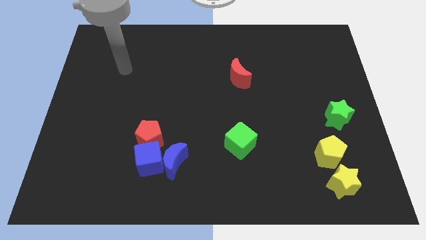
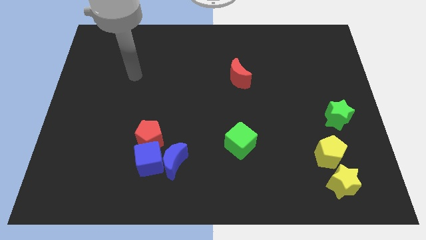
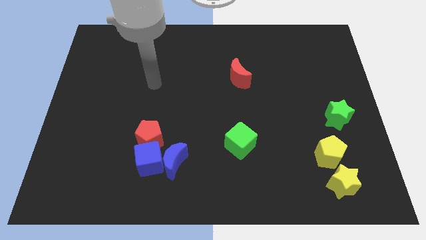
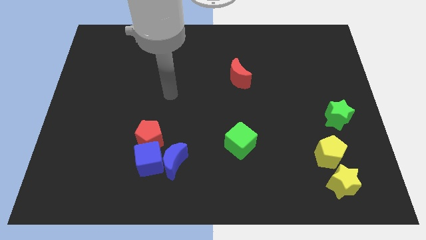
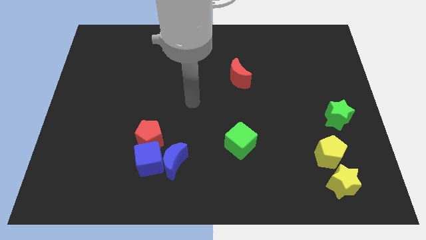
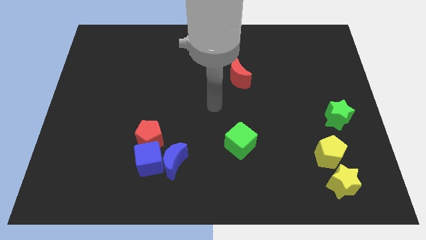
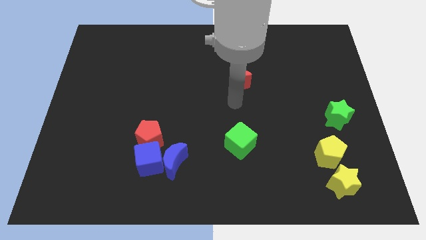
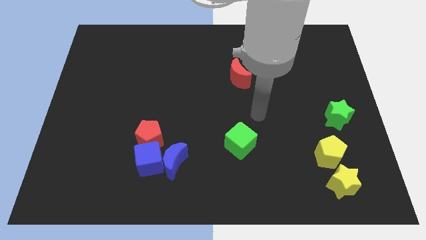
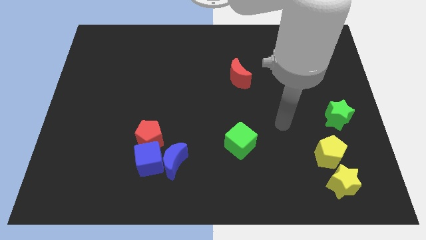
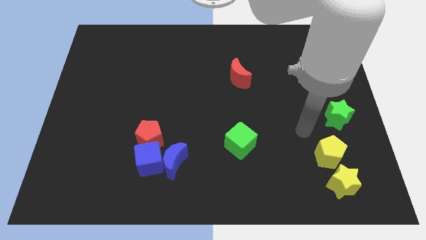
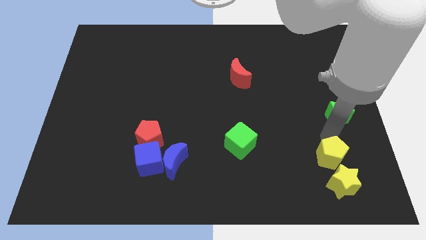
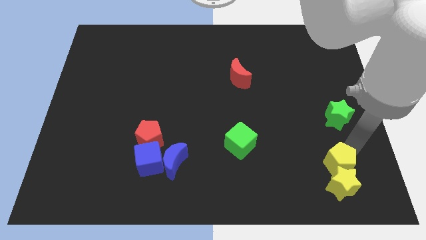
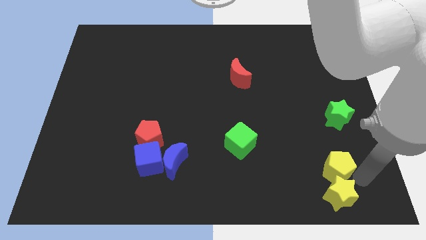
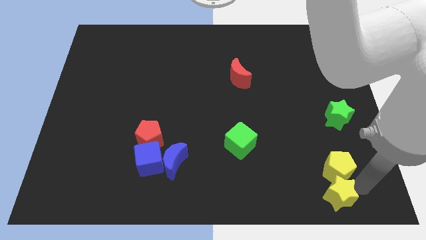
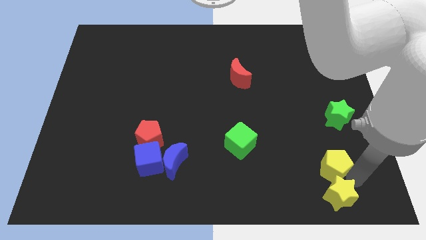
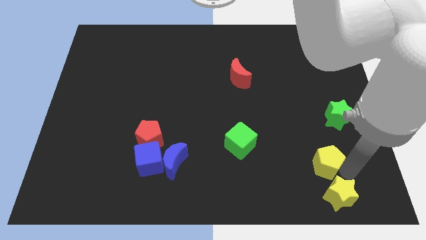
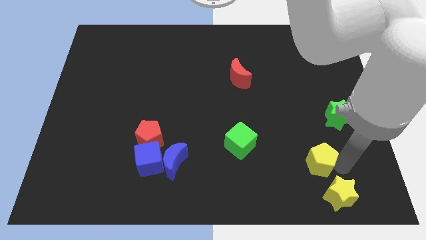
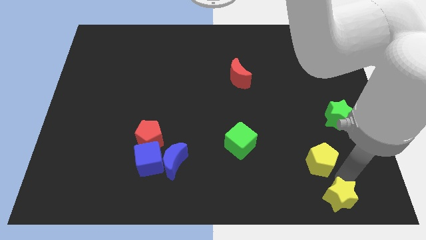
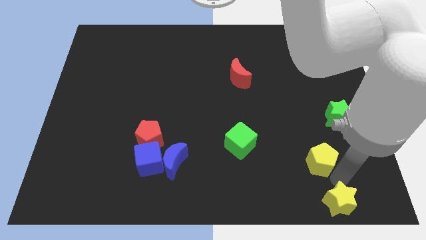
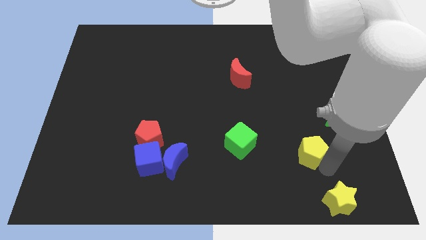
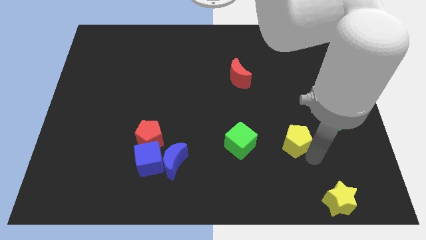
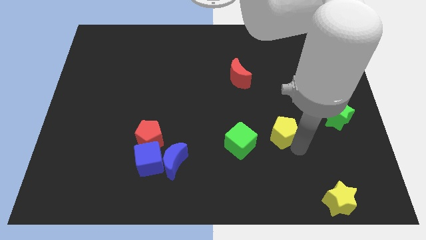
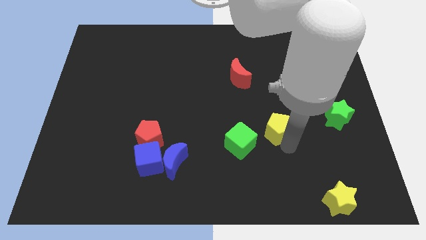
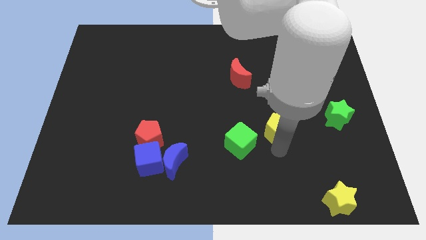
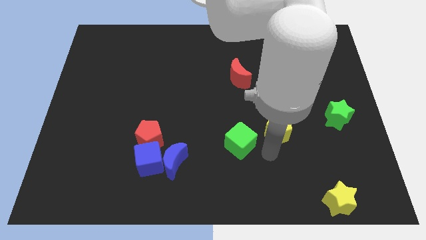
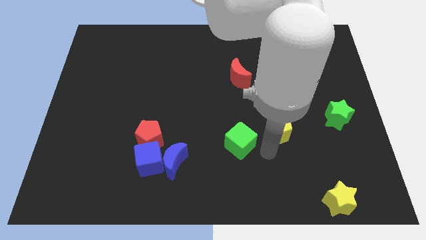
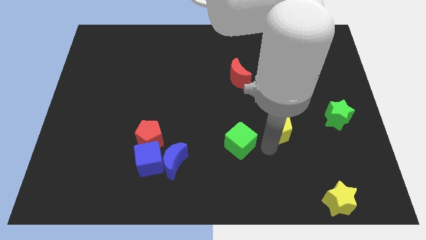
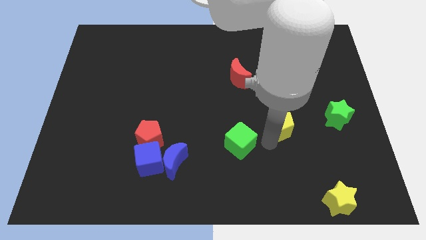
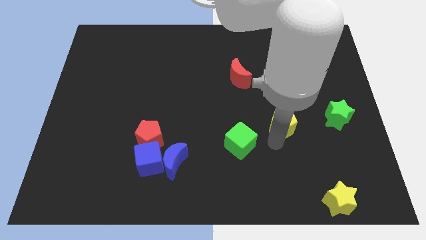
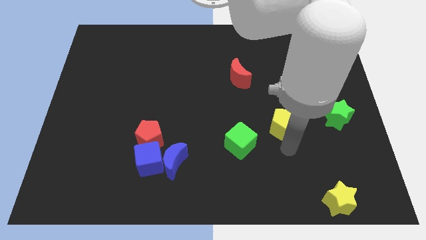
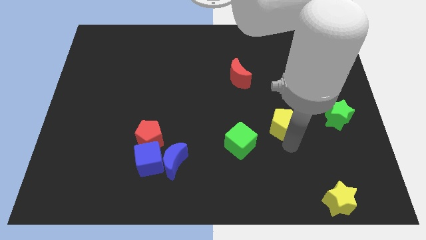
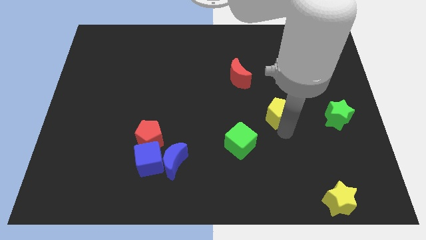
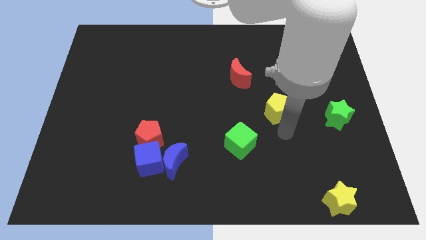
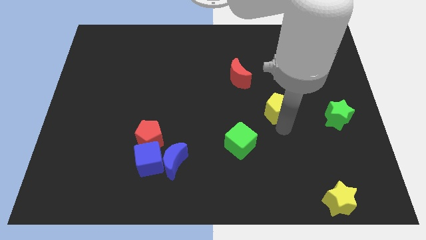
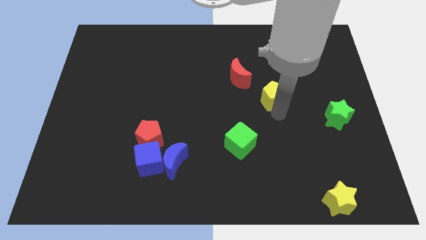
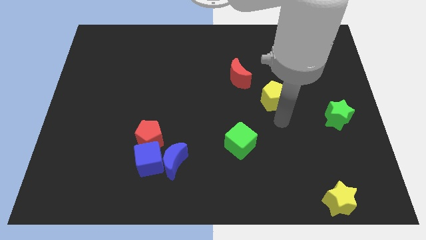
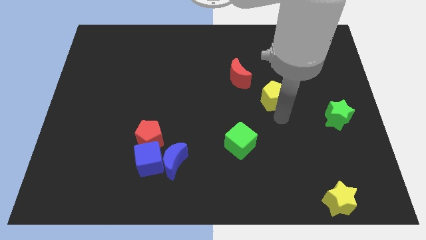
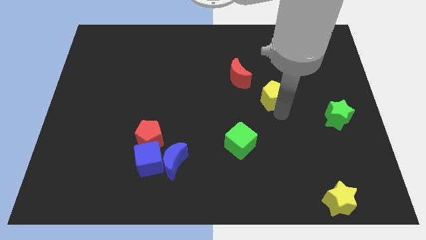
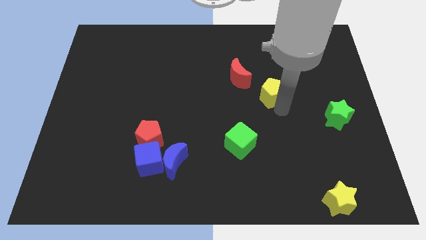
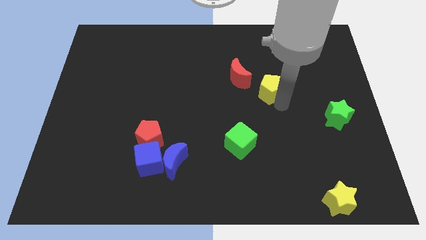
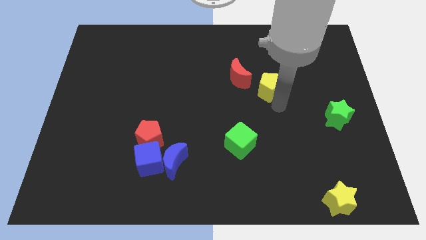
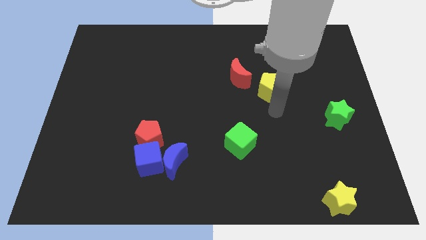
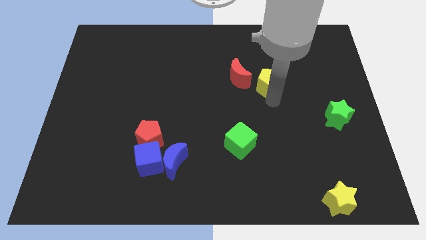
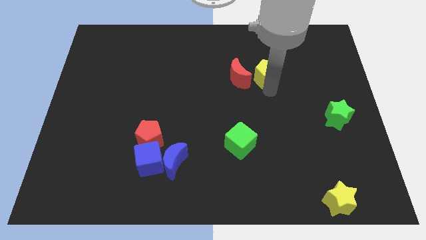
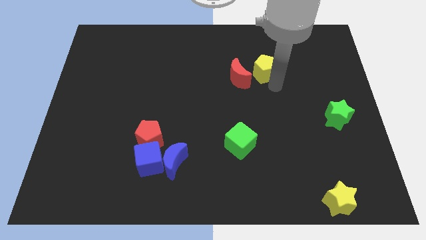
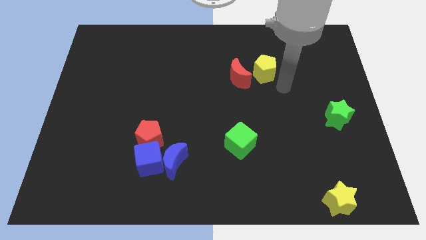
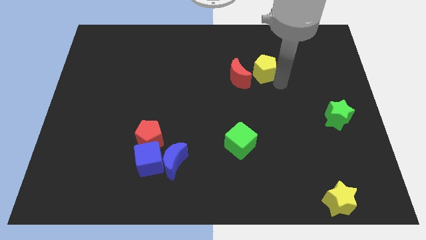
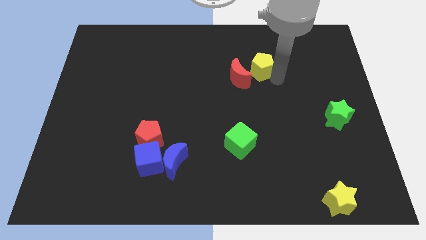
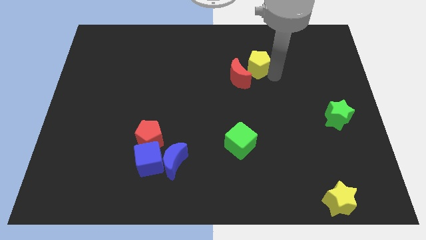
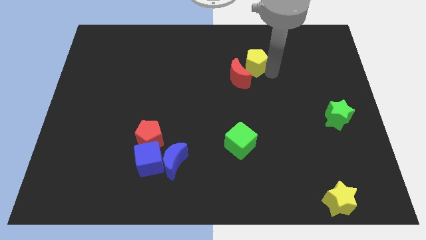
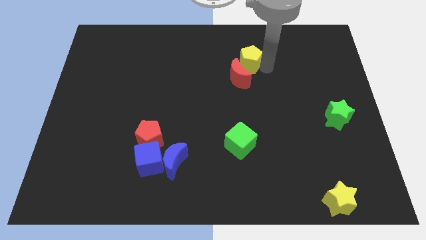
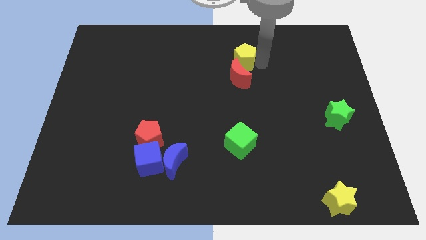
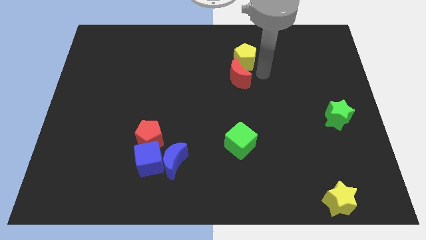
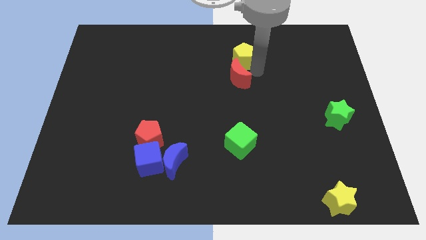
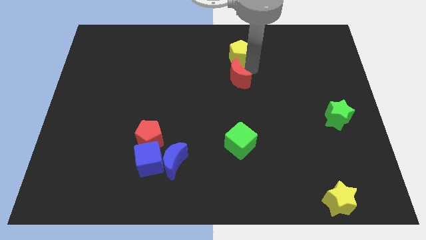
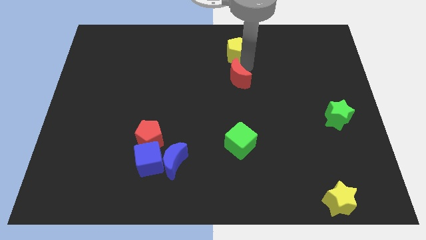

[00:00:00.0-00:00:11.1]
push the yellow pentagon to the towards your base

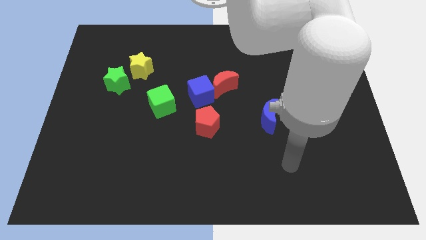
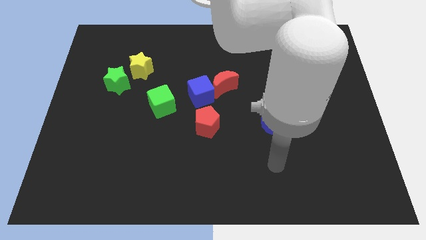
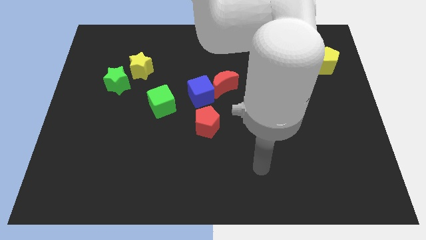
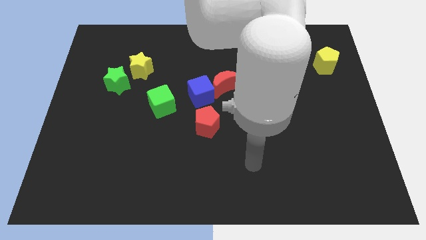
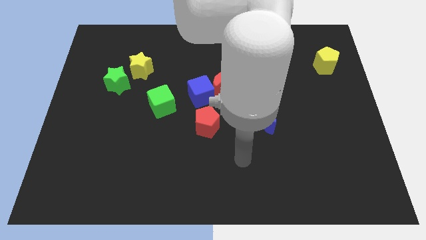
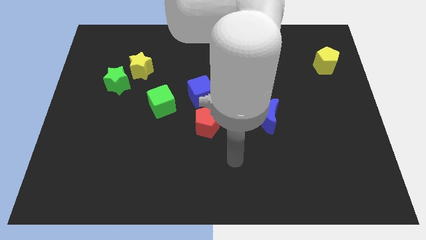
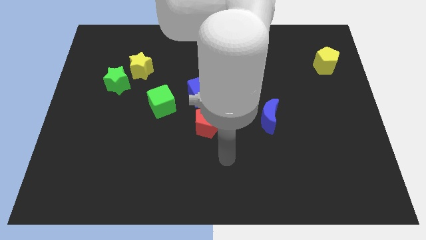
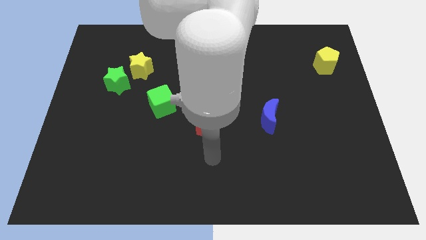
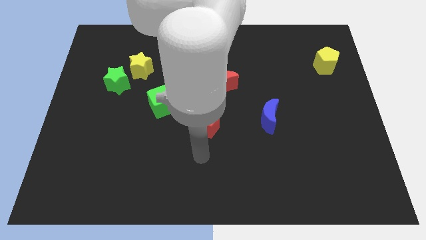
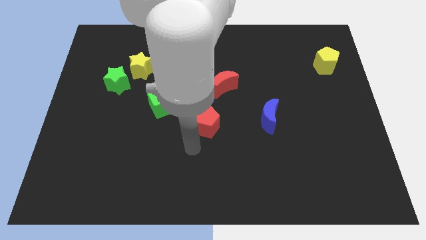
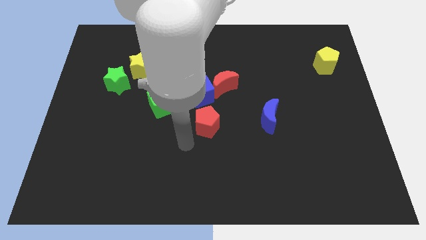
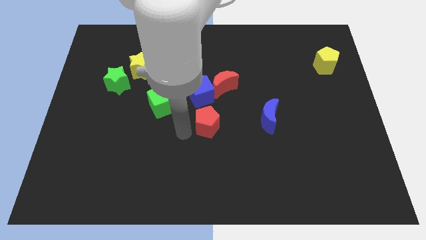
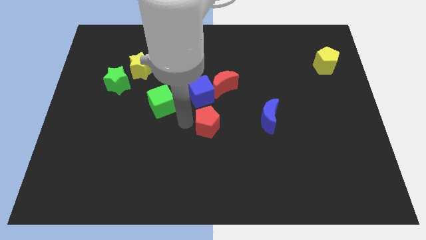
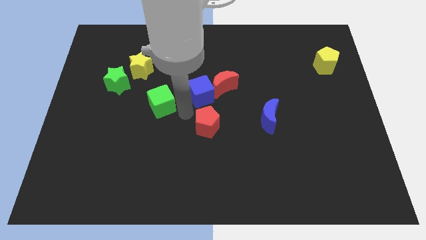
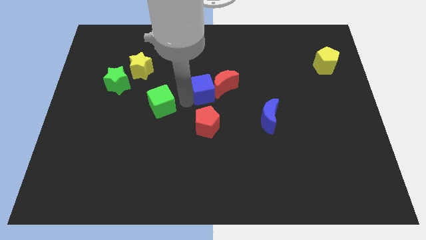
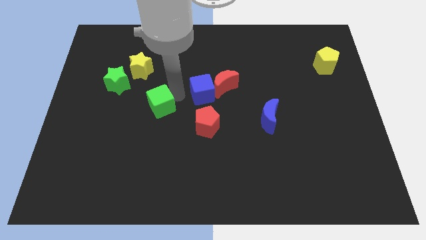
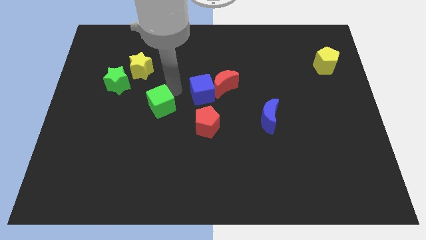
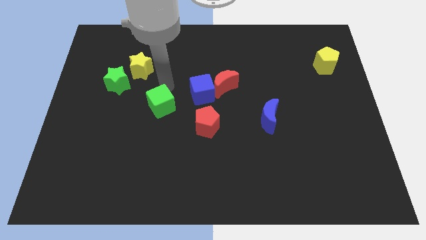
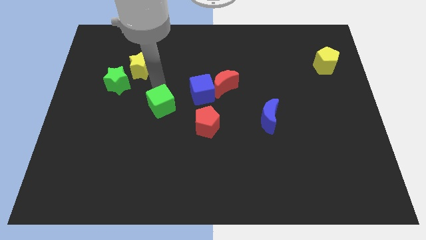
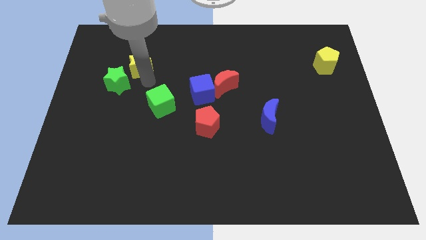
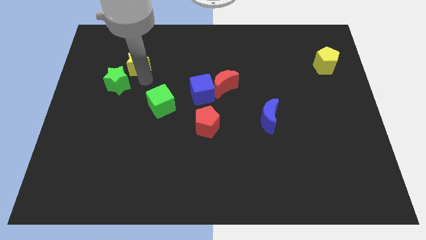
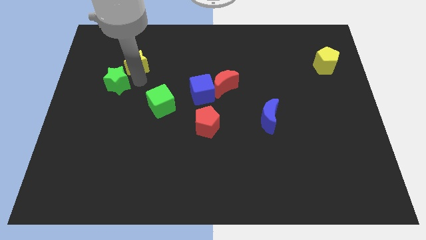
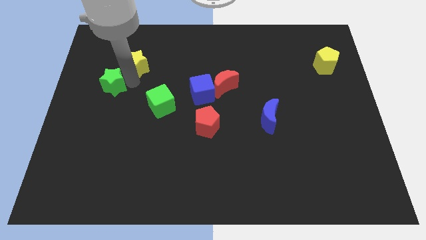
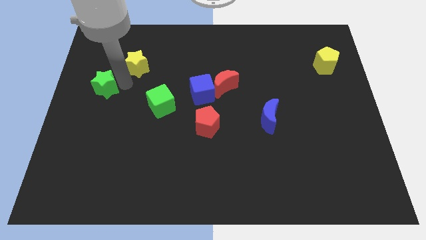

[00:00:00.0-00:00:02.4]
put the green star to the center left
